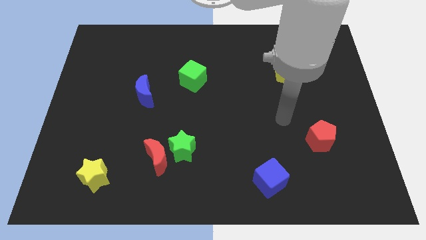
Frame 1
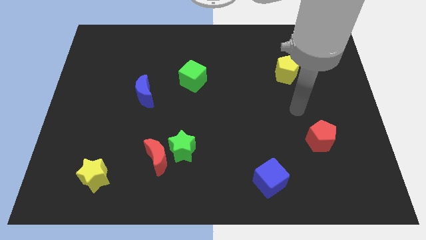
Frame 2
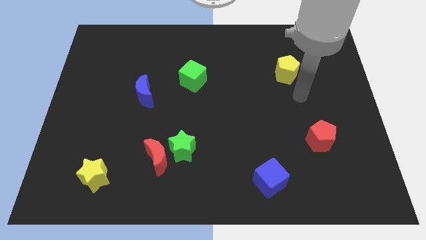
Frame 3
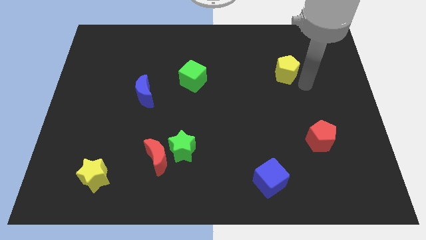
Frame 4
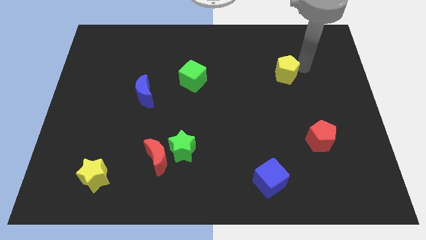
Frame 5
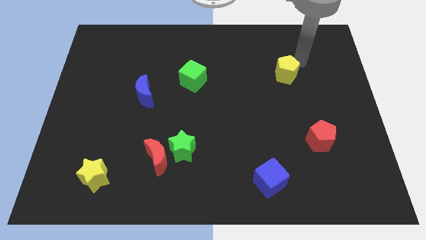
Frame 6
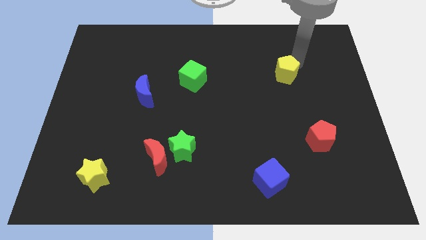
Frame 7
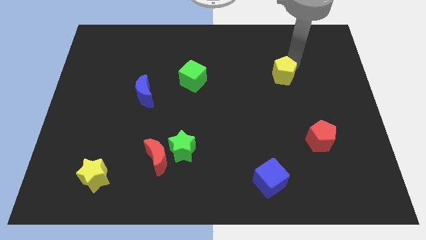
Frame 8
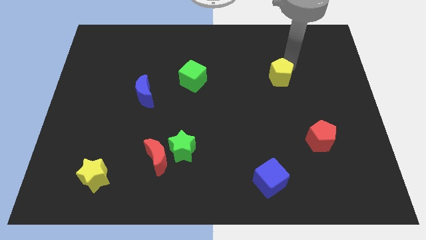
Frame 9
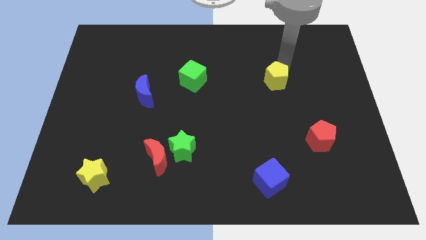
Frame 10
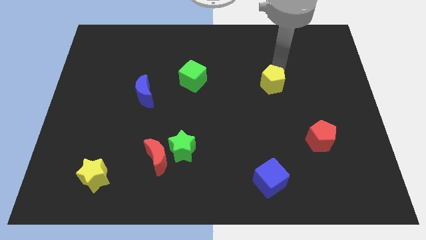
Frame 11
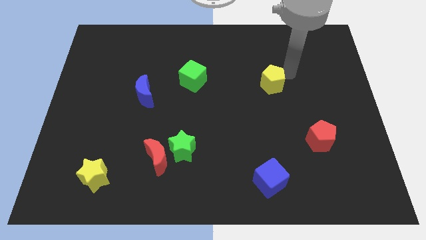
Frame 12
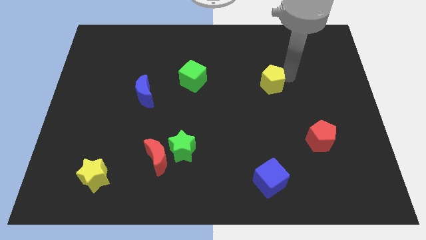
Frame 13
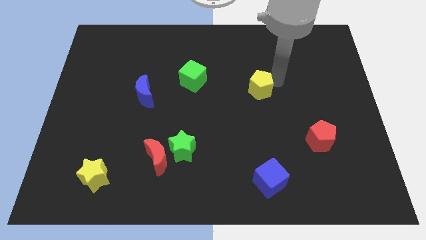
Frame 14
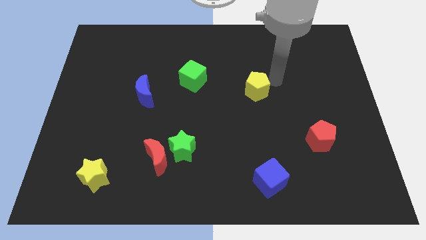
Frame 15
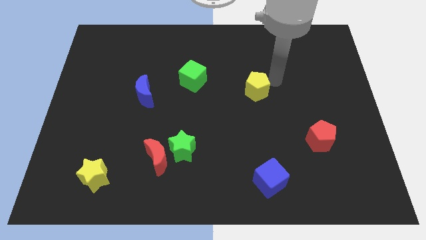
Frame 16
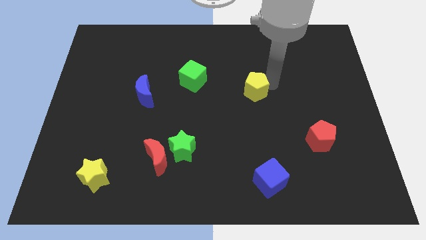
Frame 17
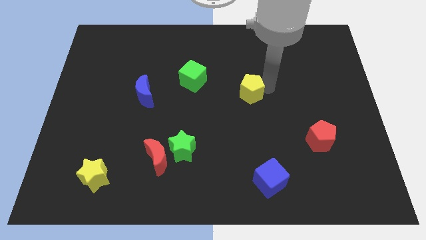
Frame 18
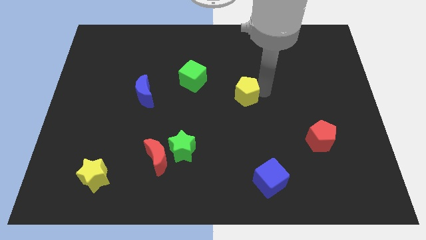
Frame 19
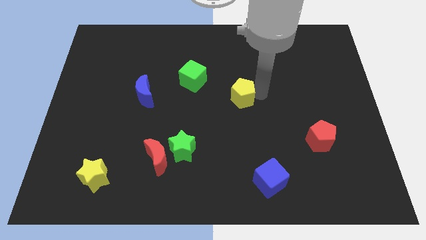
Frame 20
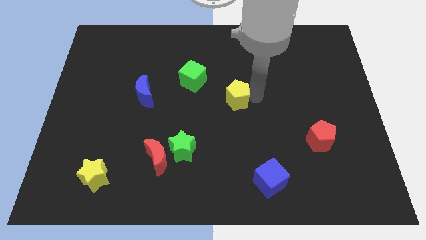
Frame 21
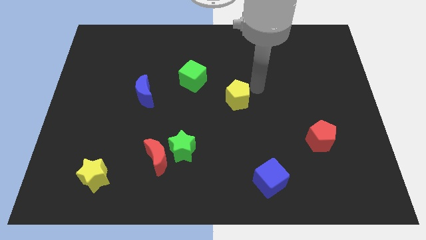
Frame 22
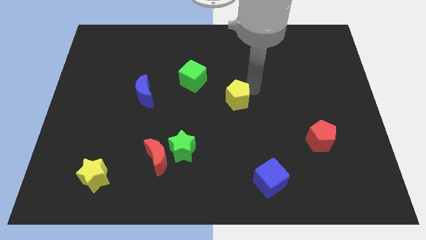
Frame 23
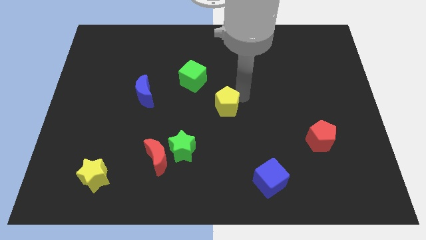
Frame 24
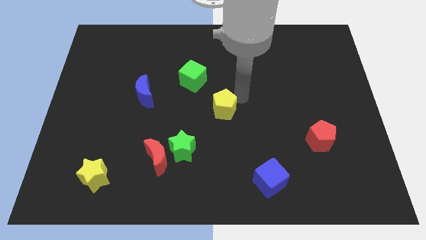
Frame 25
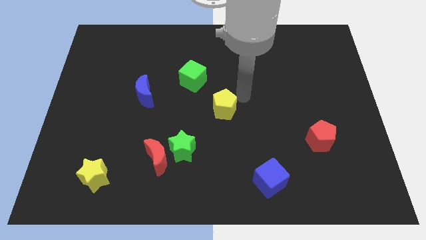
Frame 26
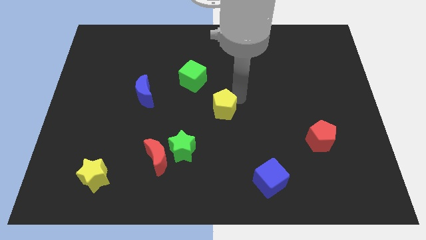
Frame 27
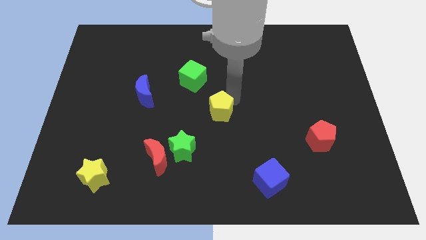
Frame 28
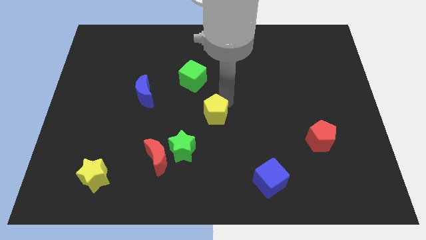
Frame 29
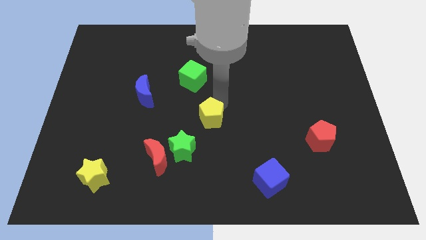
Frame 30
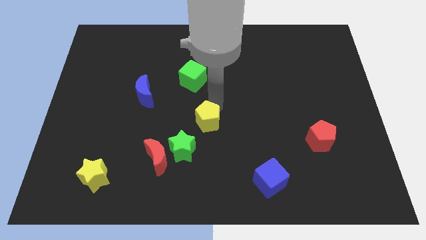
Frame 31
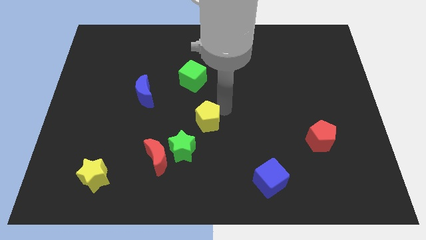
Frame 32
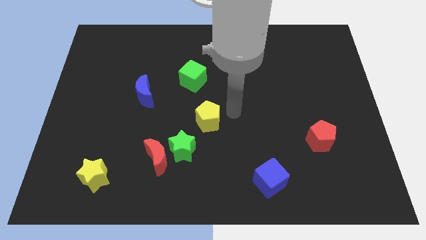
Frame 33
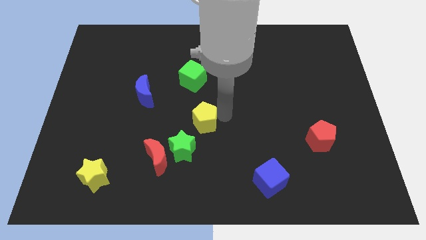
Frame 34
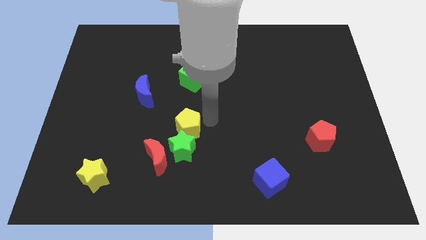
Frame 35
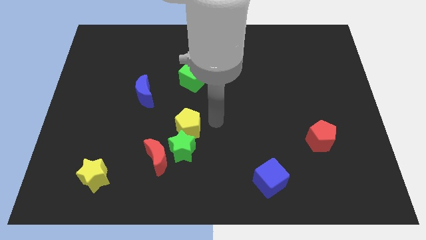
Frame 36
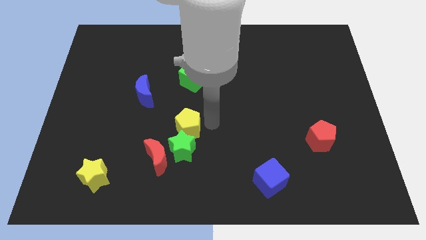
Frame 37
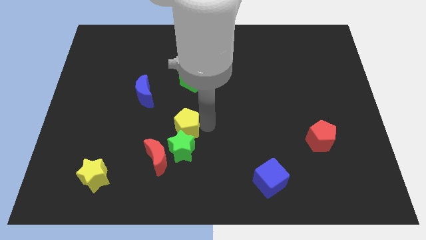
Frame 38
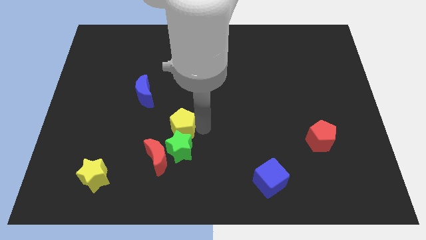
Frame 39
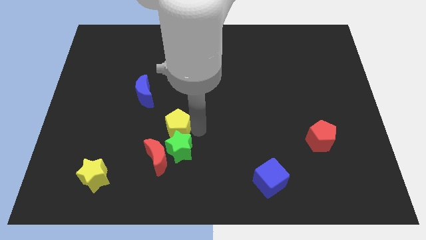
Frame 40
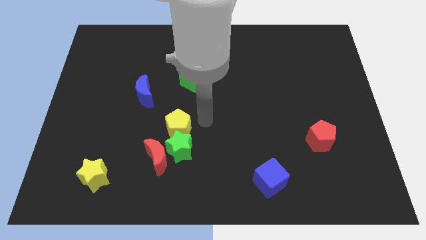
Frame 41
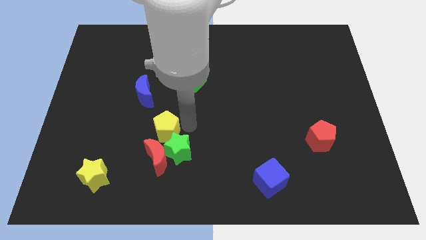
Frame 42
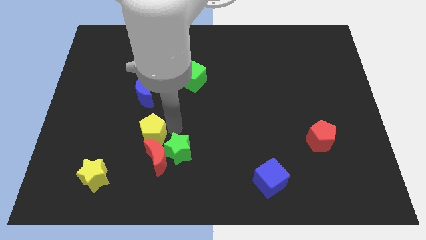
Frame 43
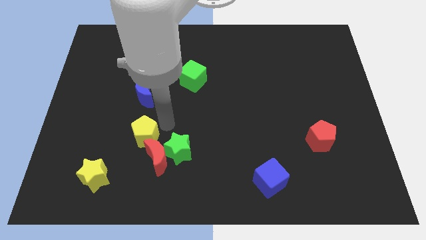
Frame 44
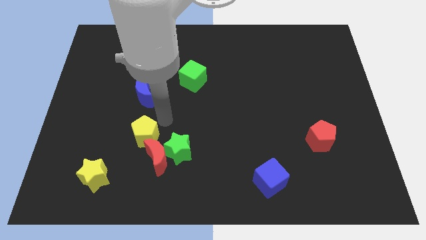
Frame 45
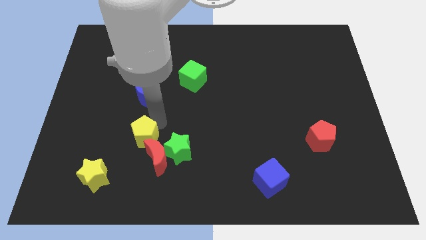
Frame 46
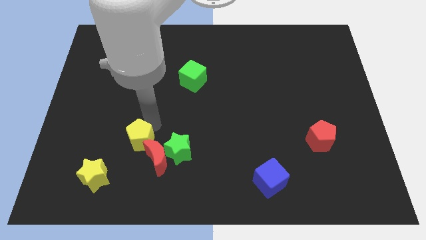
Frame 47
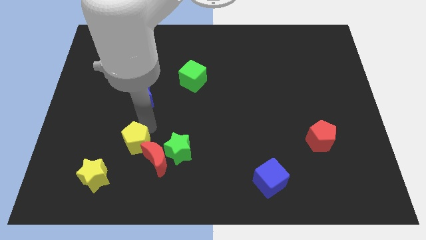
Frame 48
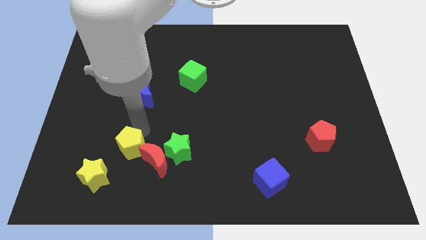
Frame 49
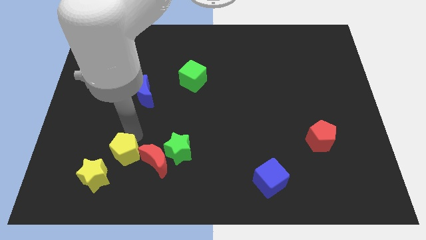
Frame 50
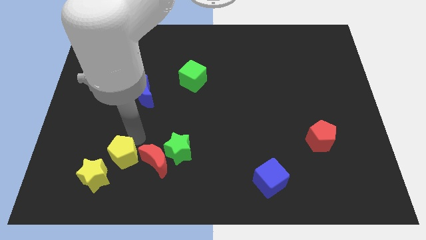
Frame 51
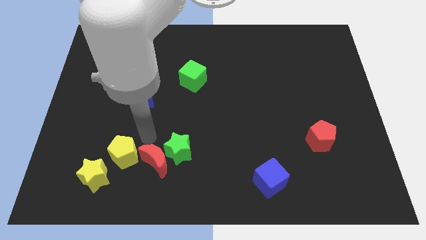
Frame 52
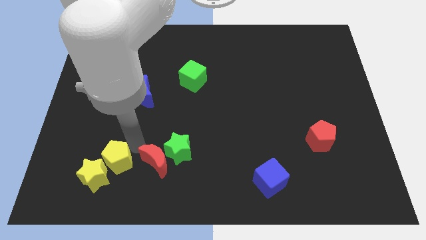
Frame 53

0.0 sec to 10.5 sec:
slide the yellow pentagon next to the yellow star

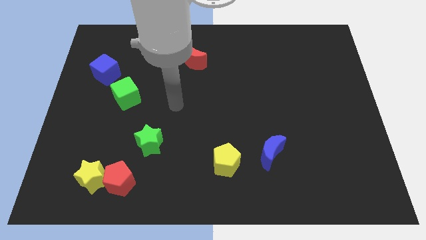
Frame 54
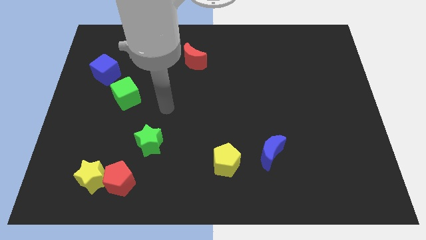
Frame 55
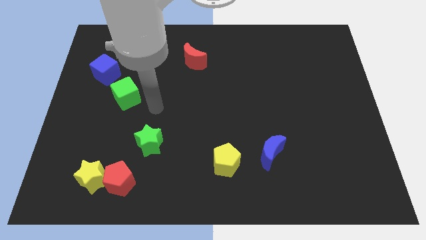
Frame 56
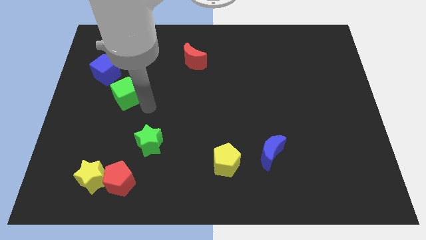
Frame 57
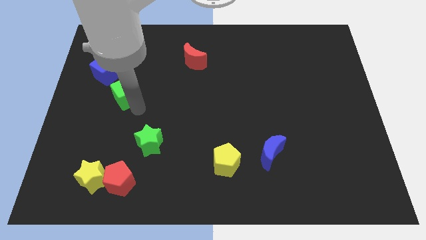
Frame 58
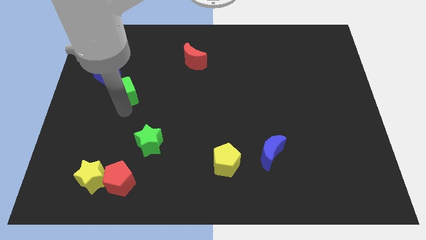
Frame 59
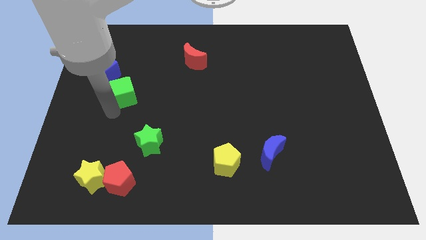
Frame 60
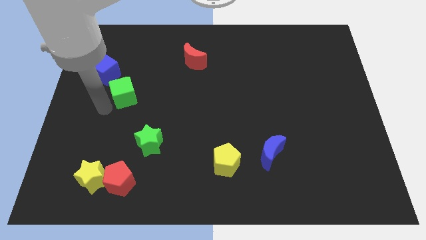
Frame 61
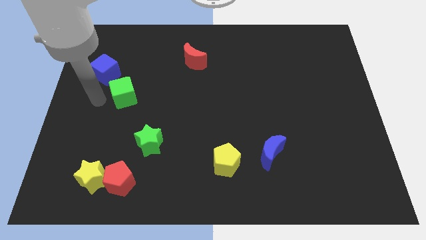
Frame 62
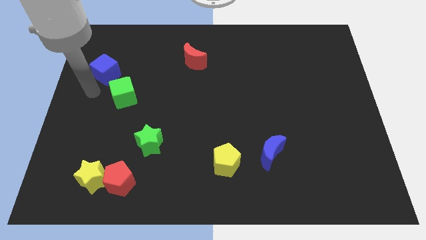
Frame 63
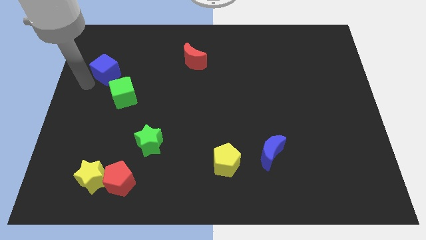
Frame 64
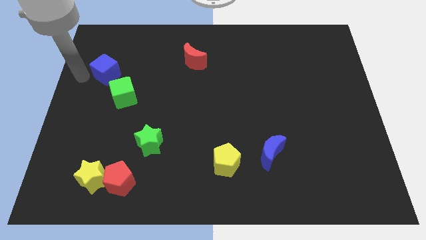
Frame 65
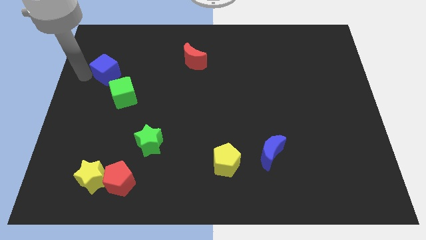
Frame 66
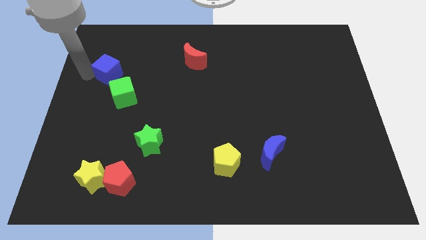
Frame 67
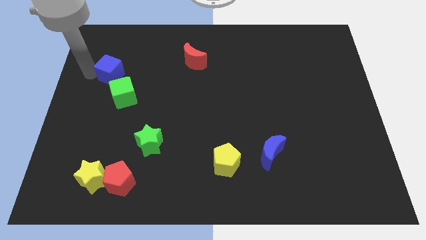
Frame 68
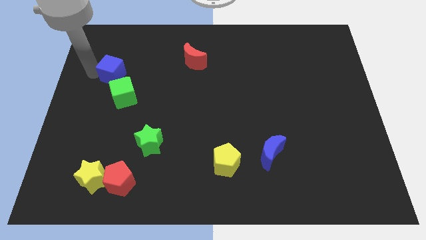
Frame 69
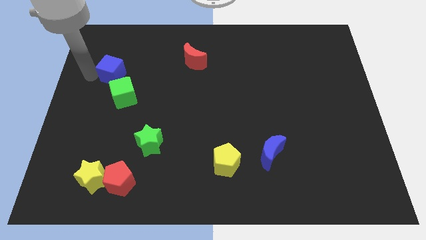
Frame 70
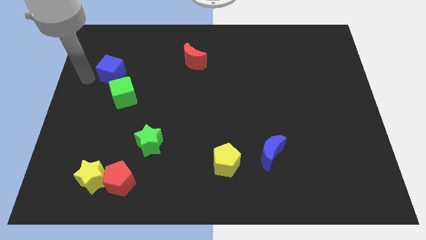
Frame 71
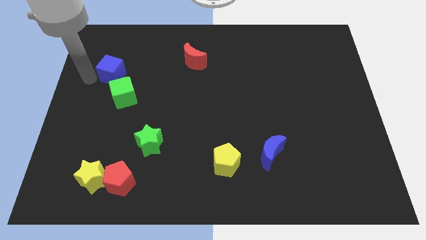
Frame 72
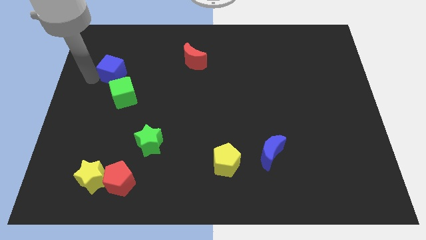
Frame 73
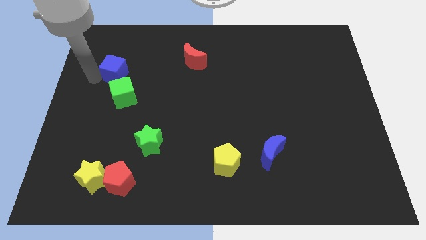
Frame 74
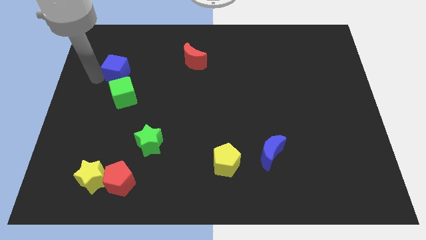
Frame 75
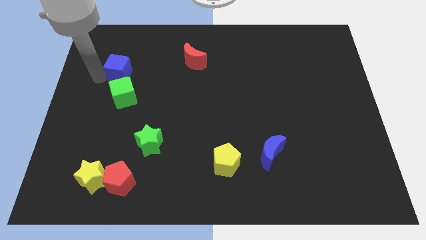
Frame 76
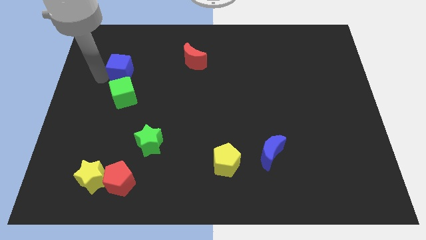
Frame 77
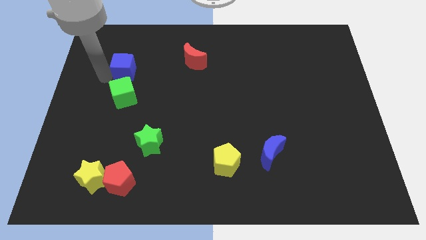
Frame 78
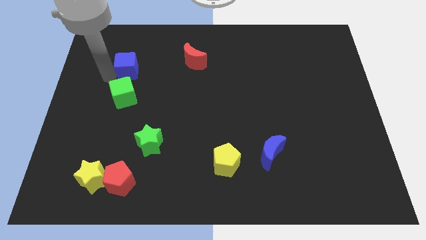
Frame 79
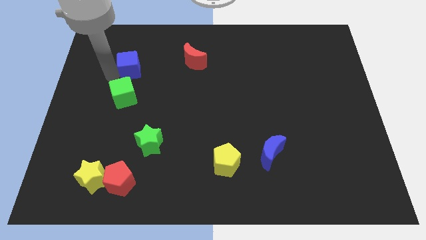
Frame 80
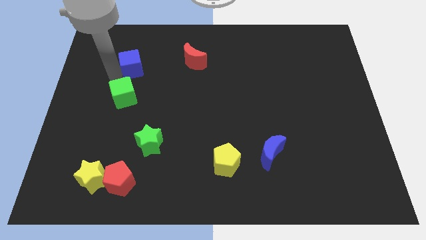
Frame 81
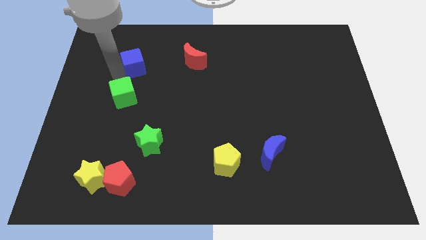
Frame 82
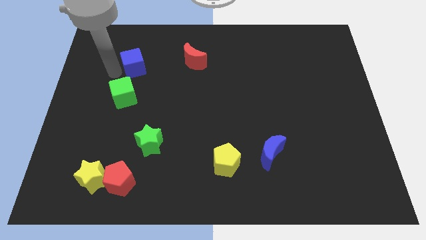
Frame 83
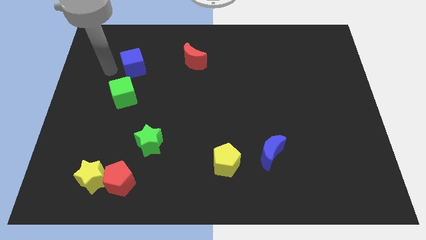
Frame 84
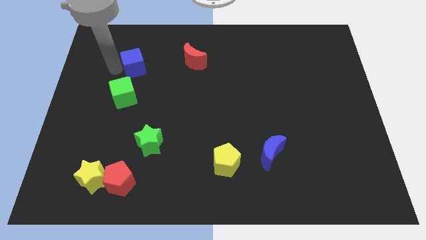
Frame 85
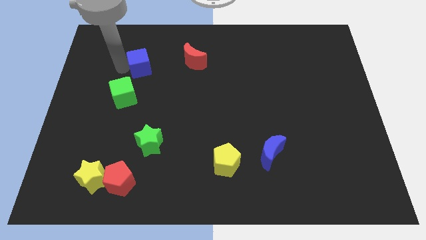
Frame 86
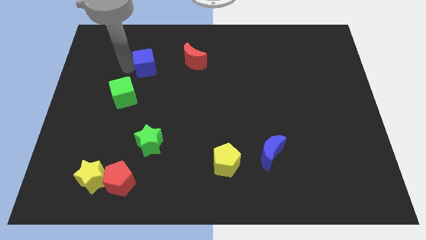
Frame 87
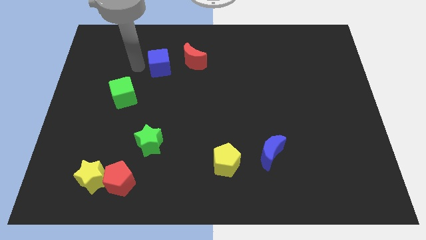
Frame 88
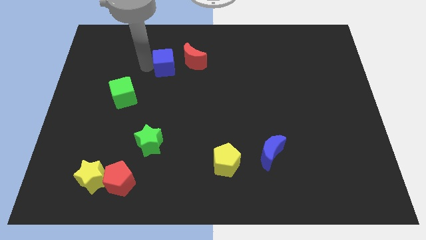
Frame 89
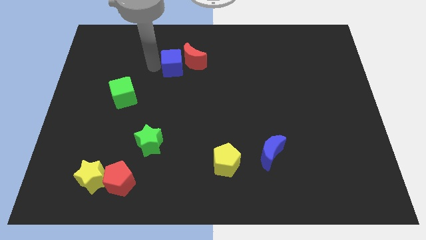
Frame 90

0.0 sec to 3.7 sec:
push the blue cube next to the red moon
